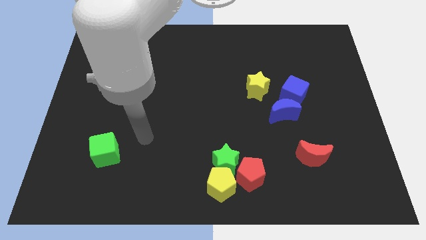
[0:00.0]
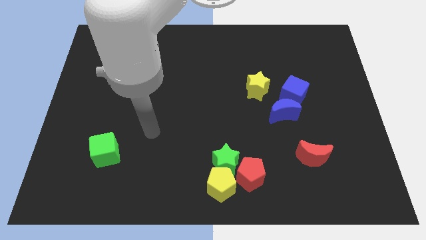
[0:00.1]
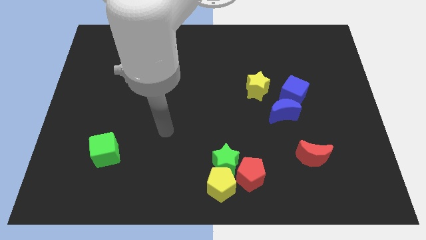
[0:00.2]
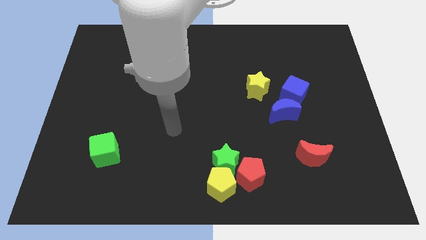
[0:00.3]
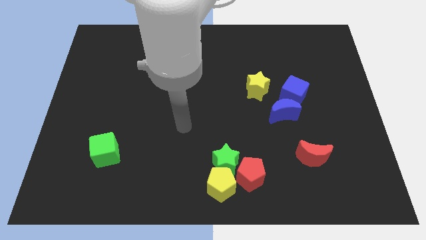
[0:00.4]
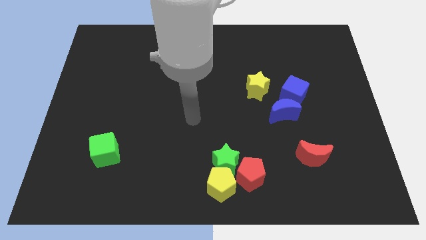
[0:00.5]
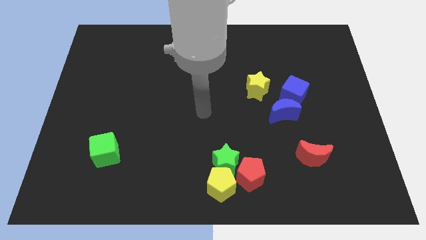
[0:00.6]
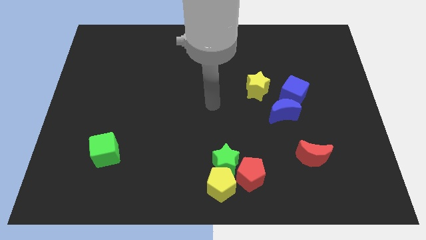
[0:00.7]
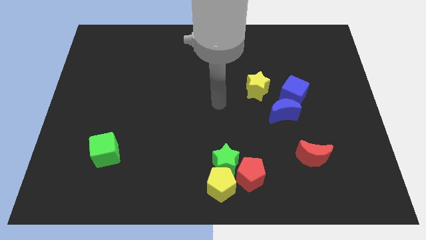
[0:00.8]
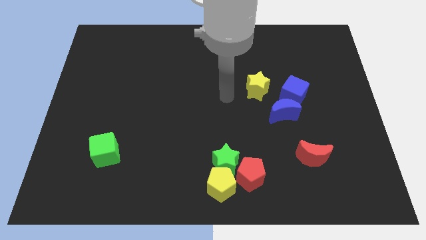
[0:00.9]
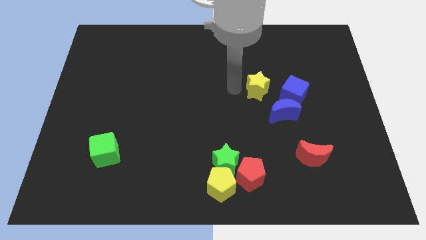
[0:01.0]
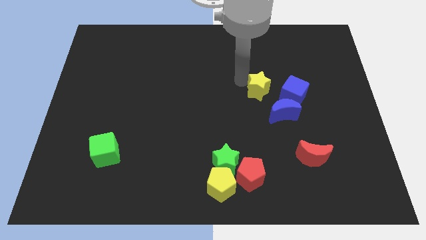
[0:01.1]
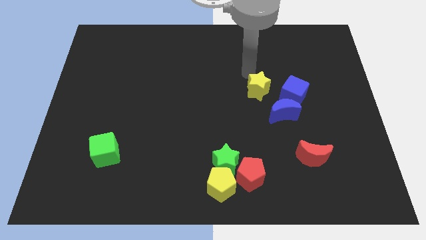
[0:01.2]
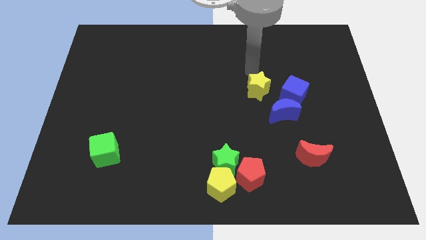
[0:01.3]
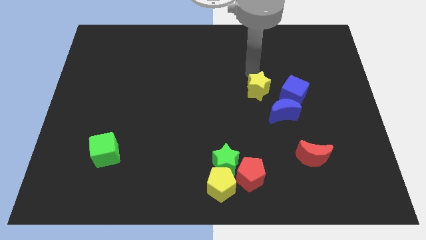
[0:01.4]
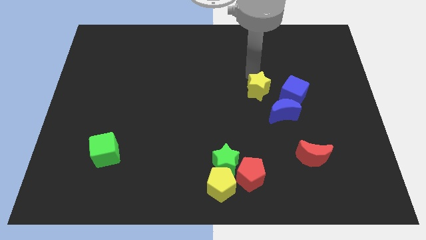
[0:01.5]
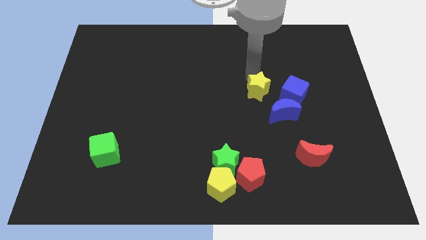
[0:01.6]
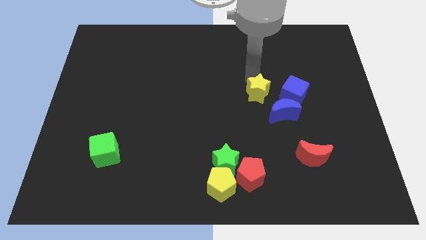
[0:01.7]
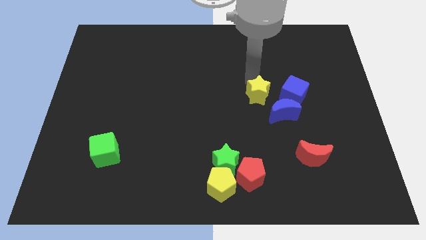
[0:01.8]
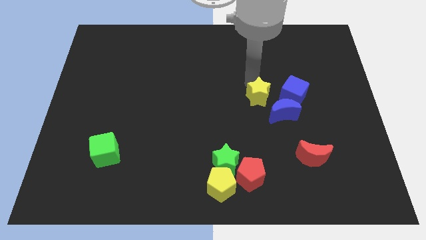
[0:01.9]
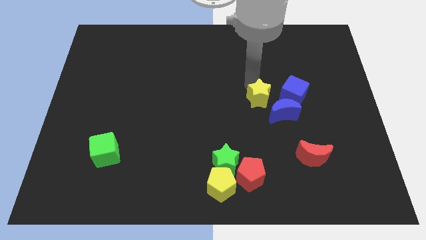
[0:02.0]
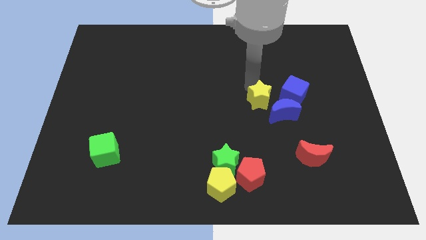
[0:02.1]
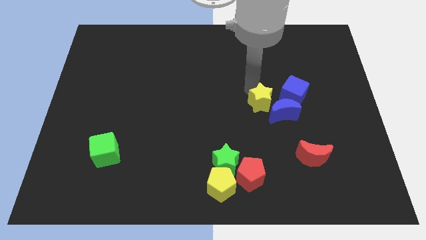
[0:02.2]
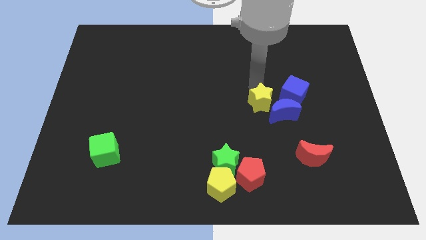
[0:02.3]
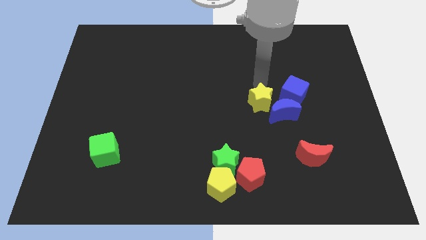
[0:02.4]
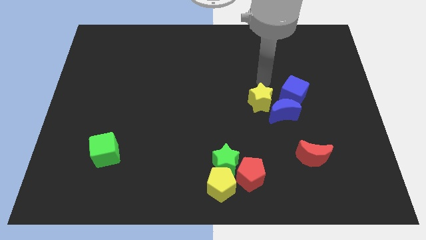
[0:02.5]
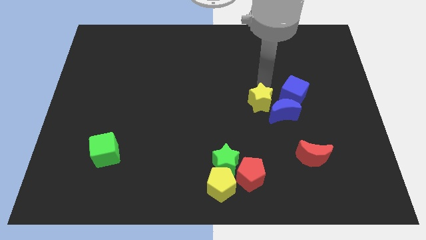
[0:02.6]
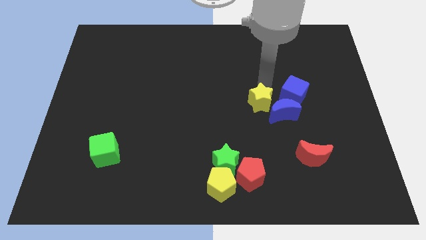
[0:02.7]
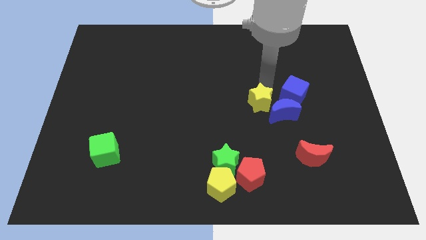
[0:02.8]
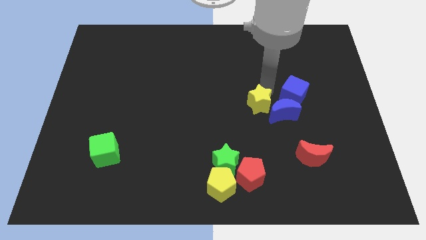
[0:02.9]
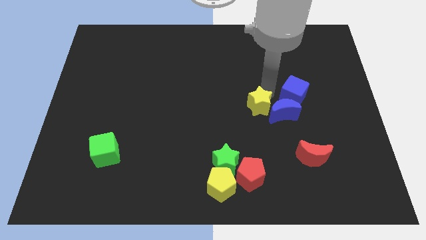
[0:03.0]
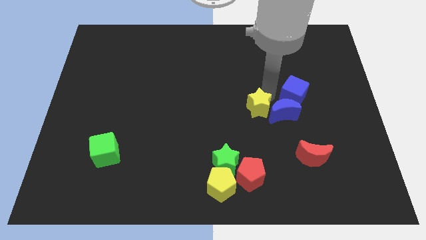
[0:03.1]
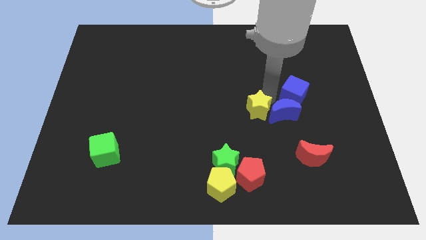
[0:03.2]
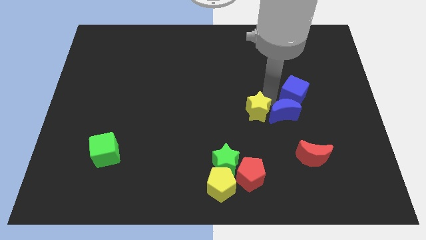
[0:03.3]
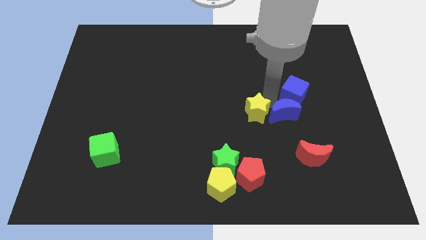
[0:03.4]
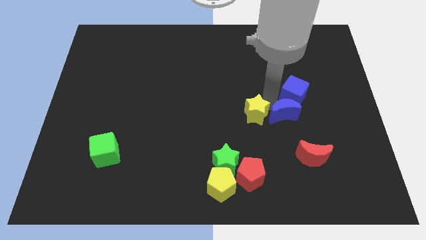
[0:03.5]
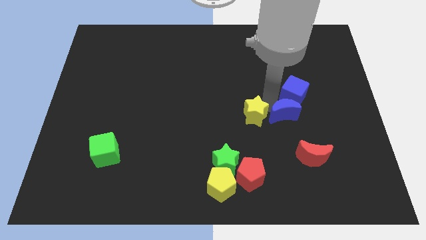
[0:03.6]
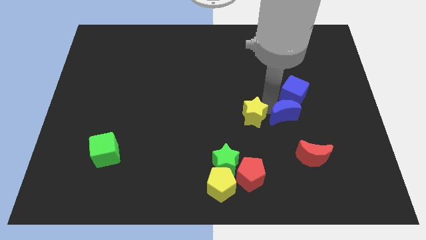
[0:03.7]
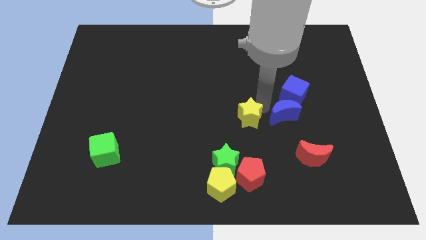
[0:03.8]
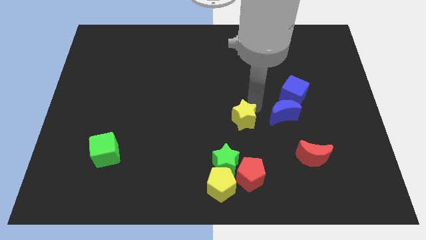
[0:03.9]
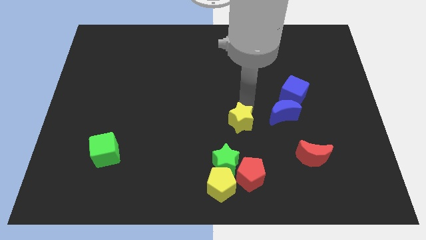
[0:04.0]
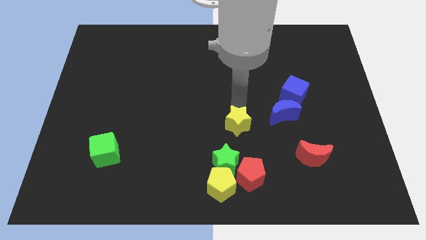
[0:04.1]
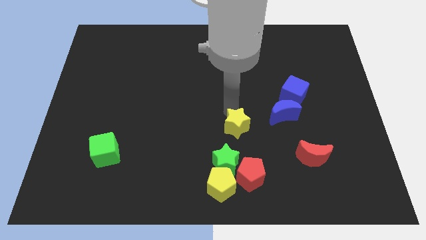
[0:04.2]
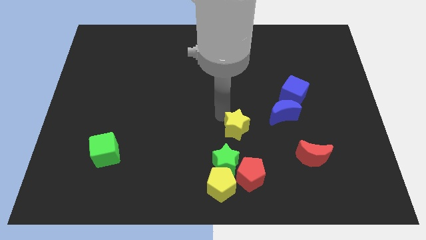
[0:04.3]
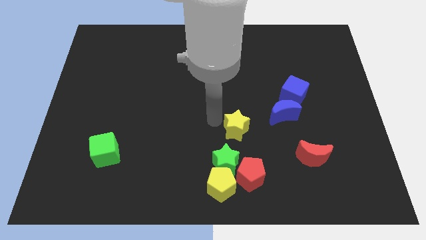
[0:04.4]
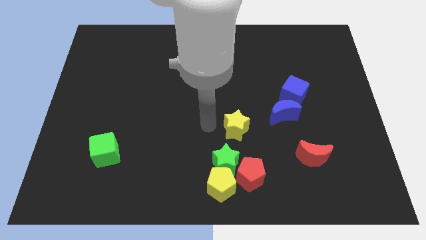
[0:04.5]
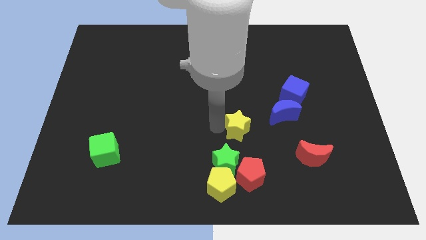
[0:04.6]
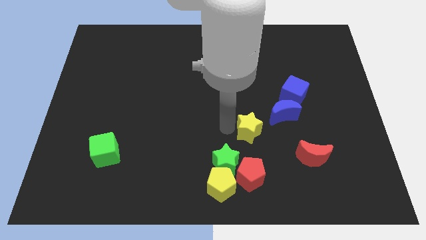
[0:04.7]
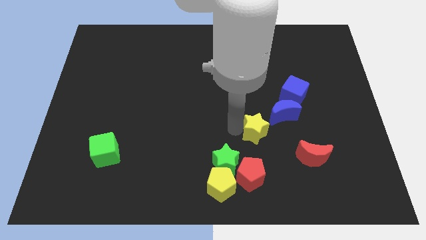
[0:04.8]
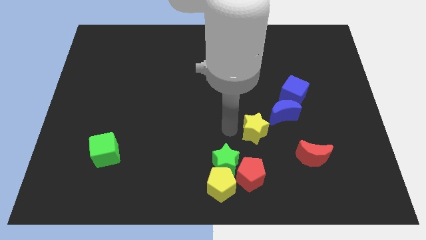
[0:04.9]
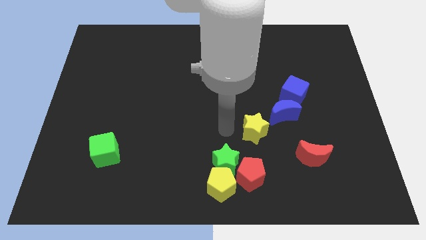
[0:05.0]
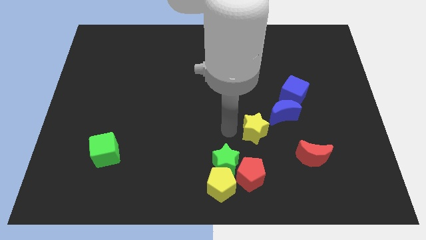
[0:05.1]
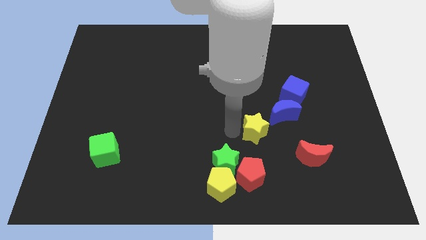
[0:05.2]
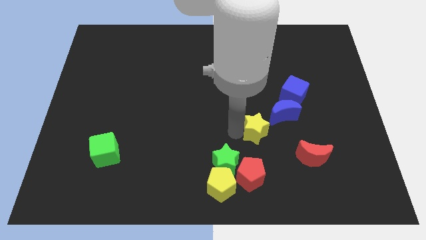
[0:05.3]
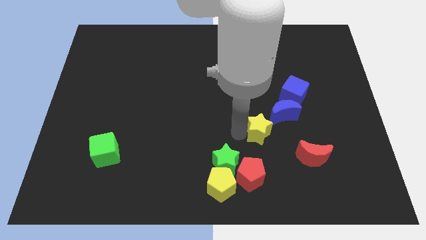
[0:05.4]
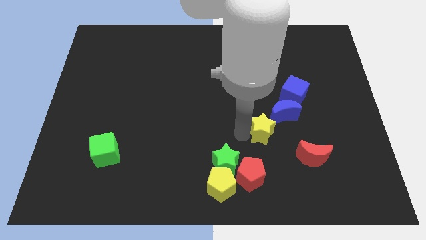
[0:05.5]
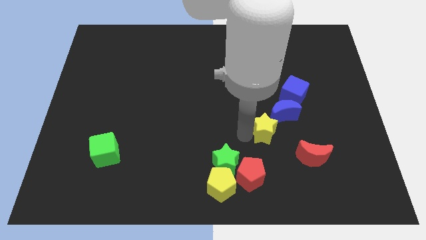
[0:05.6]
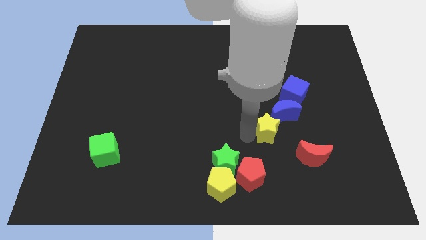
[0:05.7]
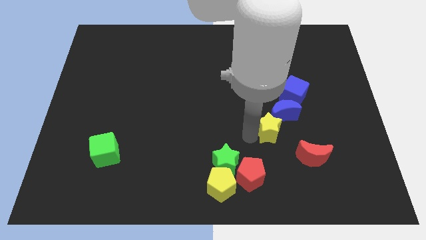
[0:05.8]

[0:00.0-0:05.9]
slightly push the yellow star down and to the right diagonally

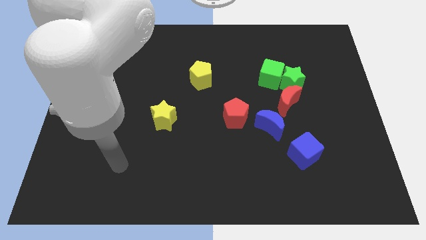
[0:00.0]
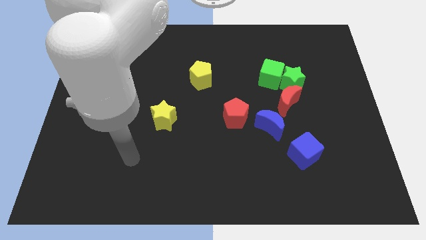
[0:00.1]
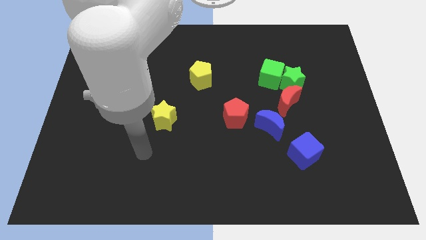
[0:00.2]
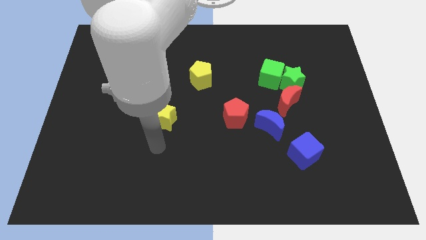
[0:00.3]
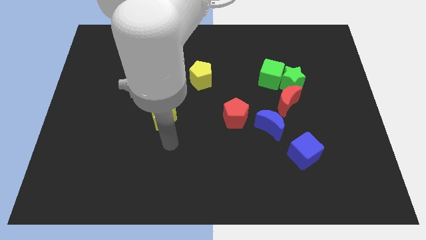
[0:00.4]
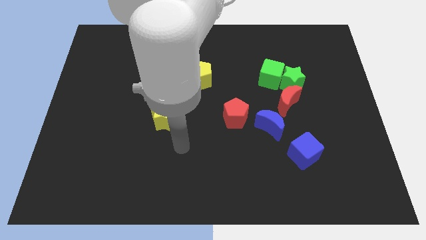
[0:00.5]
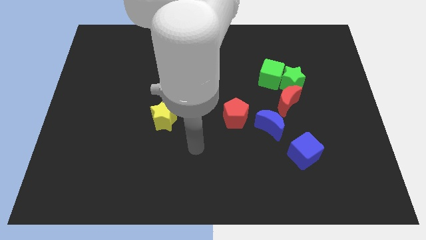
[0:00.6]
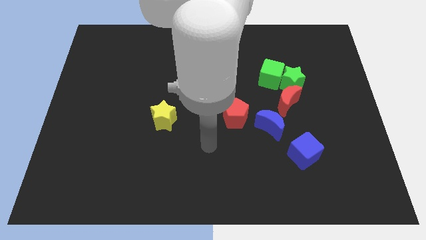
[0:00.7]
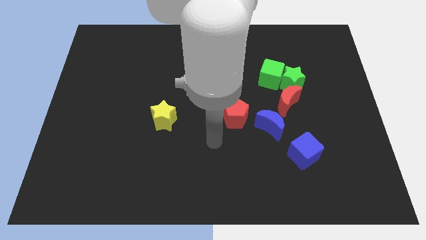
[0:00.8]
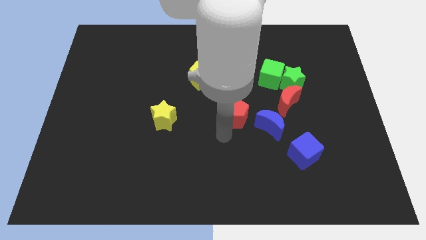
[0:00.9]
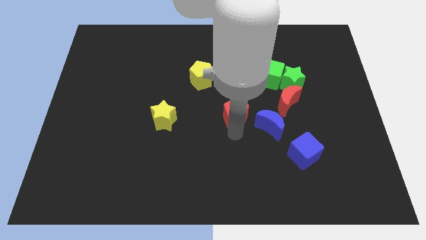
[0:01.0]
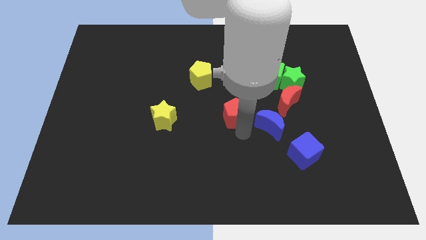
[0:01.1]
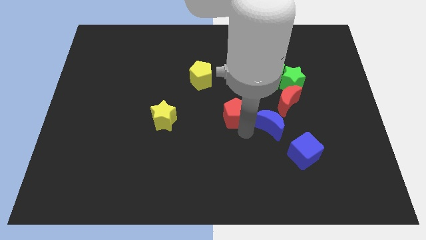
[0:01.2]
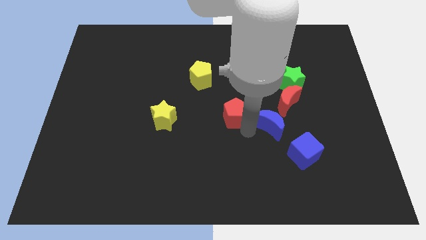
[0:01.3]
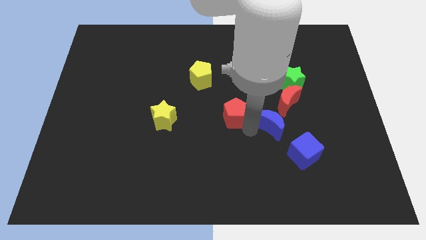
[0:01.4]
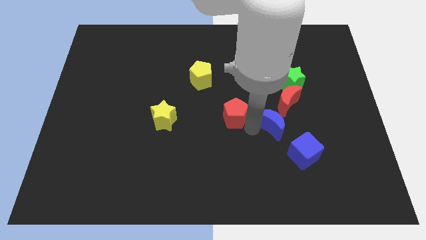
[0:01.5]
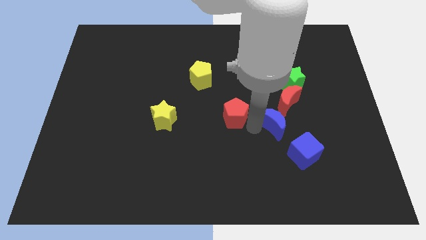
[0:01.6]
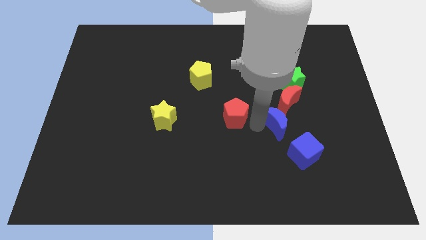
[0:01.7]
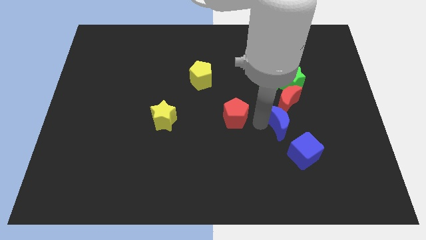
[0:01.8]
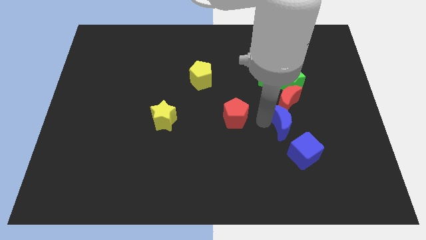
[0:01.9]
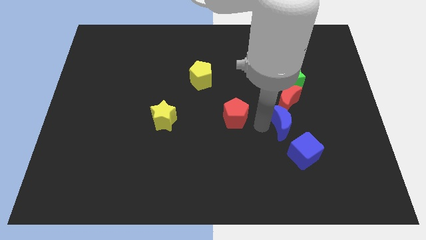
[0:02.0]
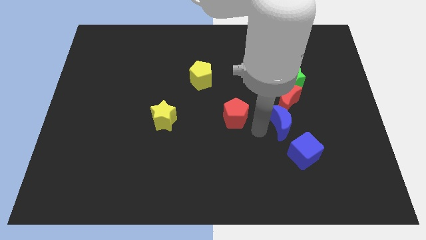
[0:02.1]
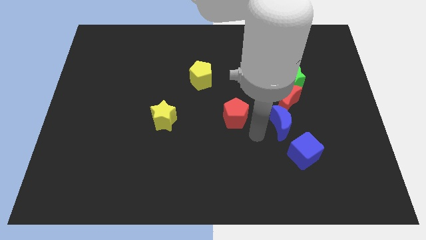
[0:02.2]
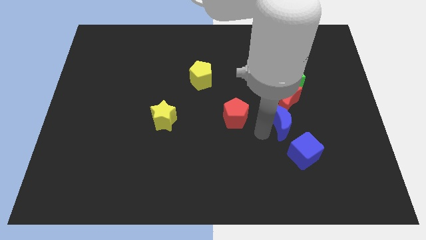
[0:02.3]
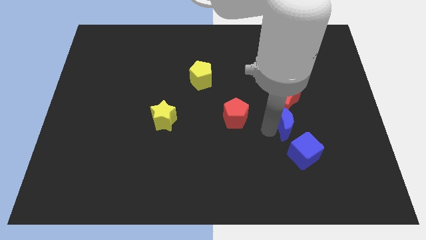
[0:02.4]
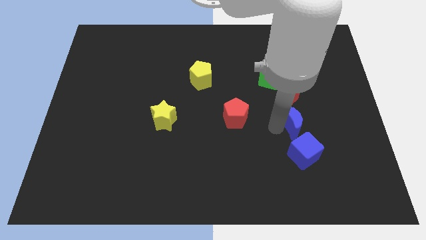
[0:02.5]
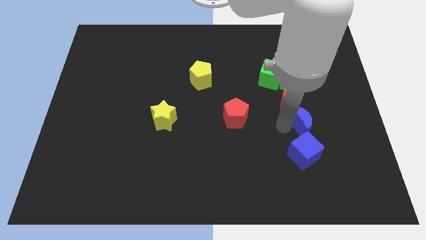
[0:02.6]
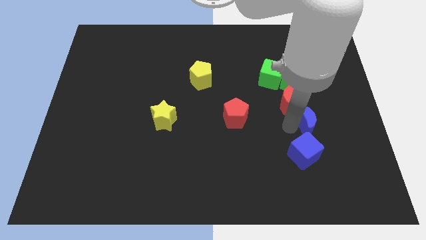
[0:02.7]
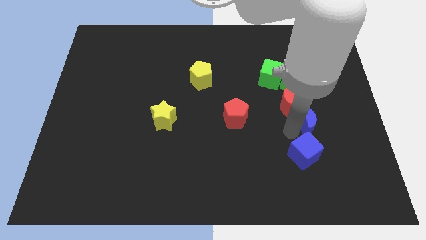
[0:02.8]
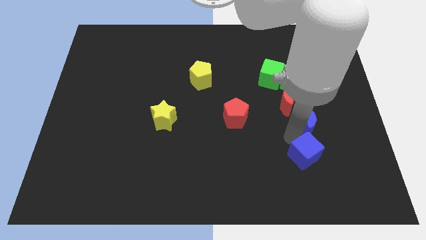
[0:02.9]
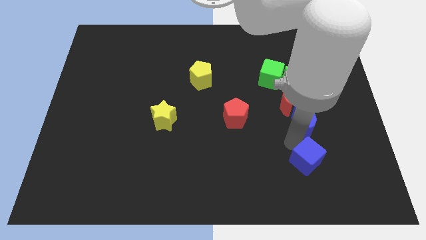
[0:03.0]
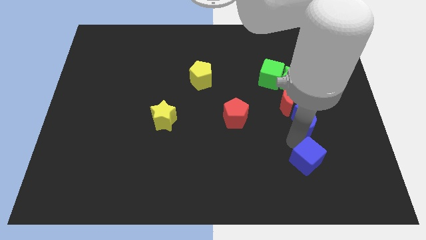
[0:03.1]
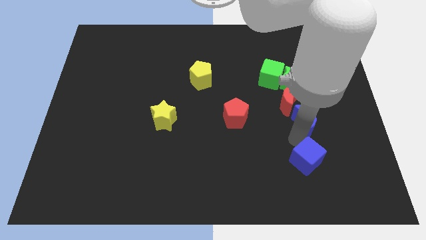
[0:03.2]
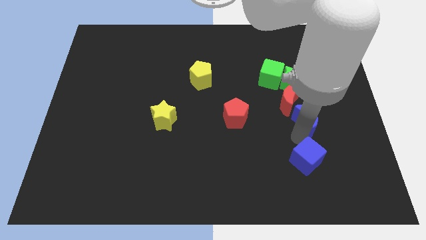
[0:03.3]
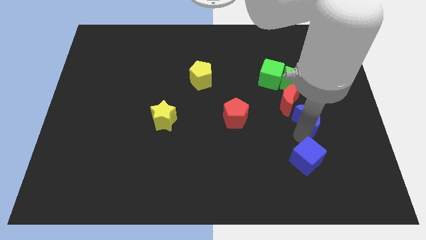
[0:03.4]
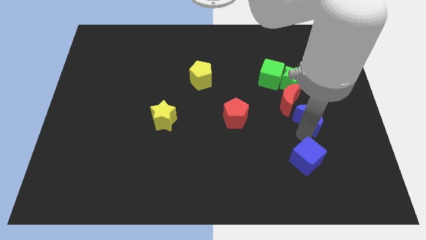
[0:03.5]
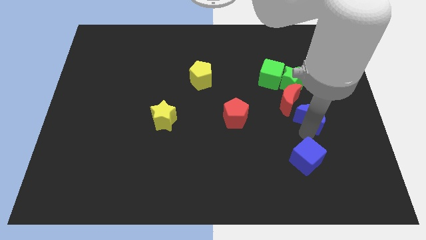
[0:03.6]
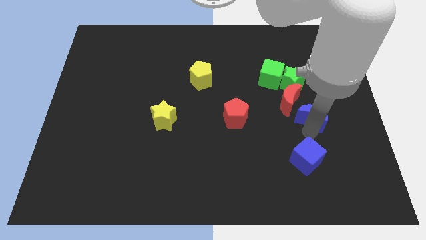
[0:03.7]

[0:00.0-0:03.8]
move the blue moon upwards and then right a bit
